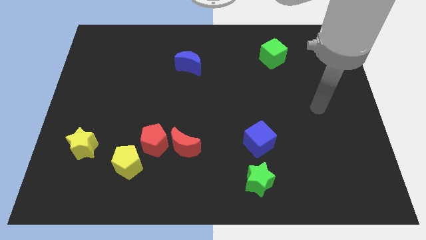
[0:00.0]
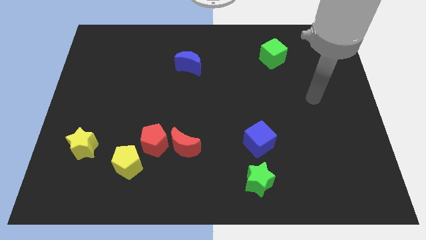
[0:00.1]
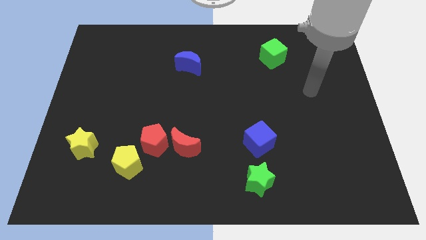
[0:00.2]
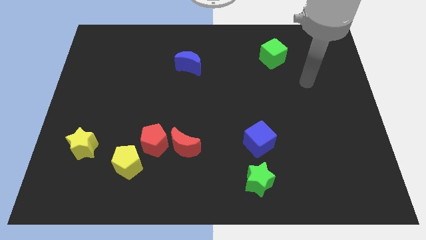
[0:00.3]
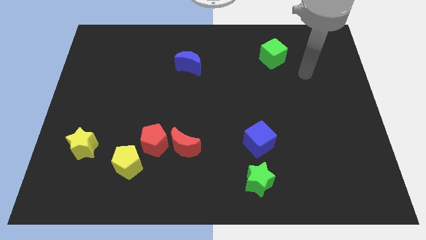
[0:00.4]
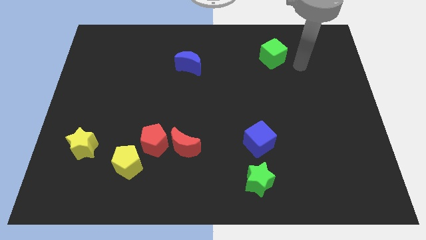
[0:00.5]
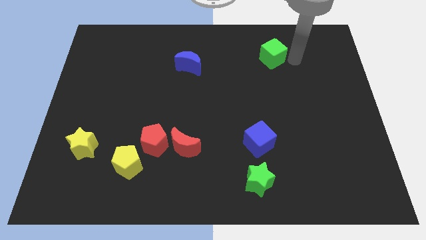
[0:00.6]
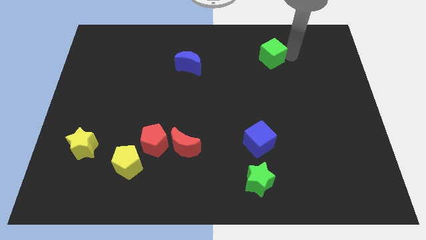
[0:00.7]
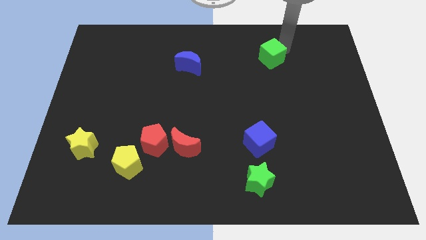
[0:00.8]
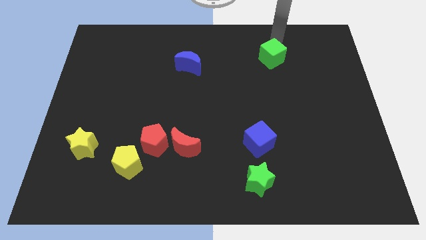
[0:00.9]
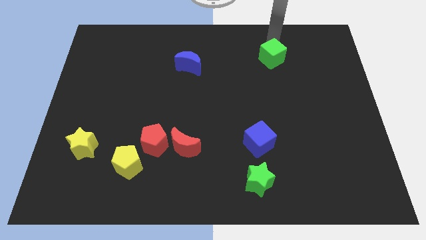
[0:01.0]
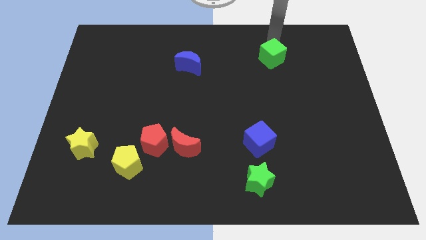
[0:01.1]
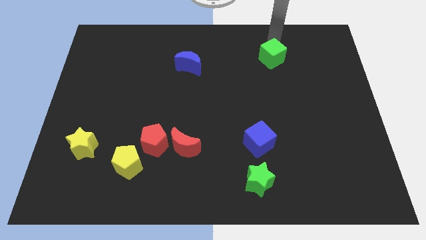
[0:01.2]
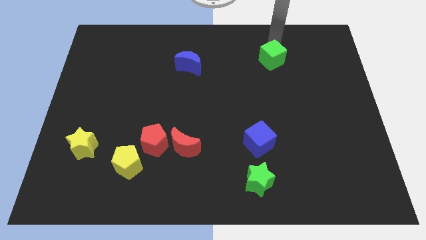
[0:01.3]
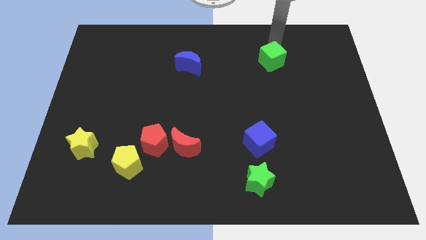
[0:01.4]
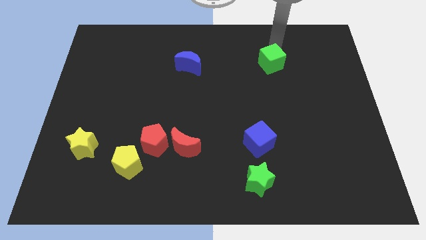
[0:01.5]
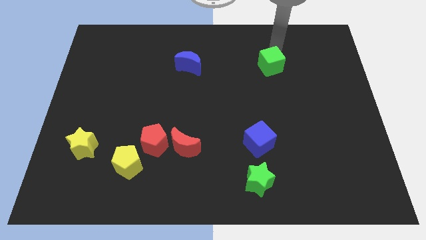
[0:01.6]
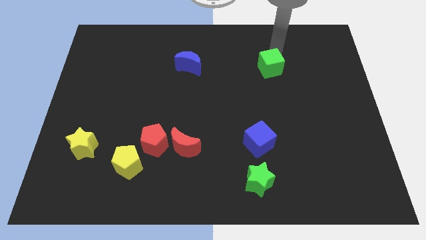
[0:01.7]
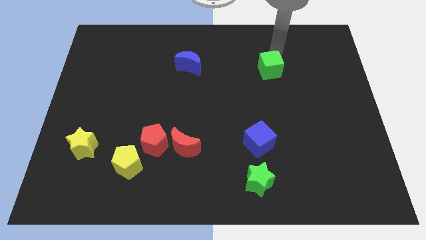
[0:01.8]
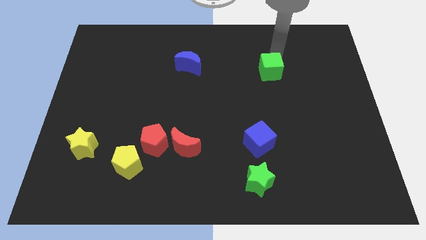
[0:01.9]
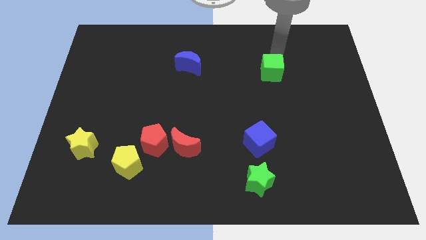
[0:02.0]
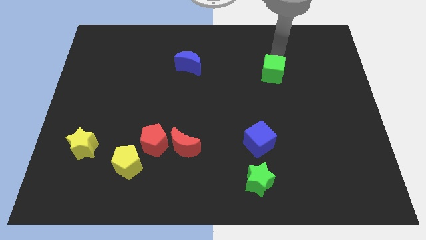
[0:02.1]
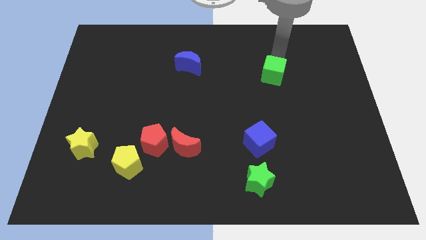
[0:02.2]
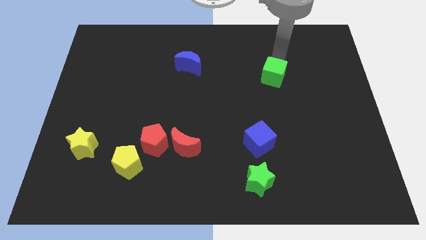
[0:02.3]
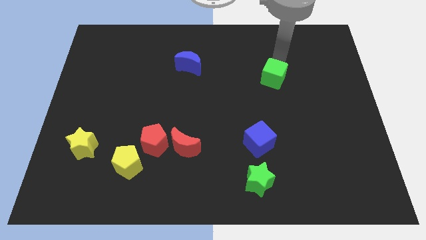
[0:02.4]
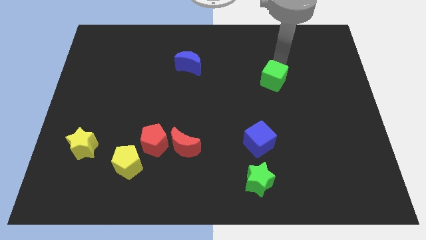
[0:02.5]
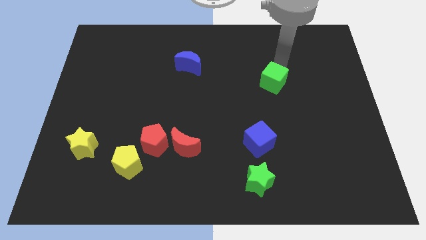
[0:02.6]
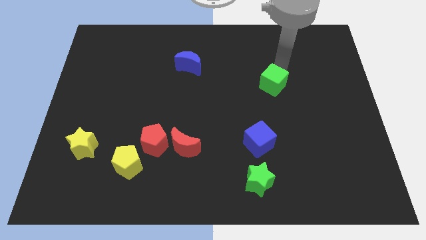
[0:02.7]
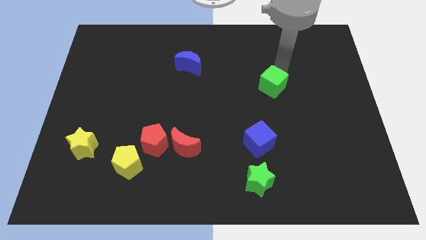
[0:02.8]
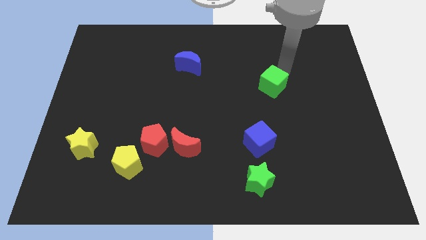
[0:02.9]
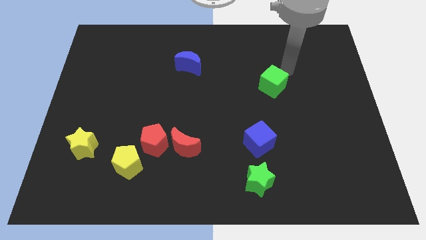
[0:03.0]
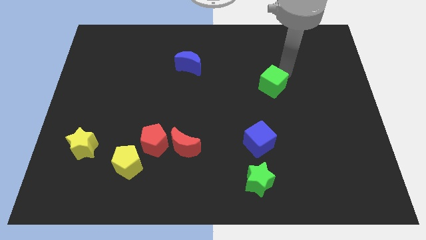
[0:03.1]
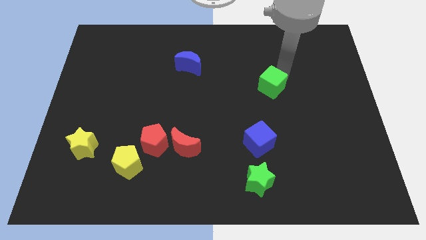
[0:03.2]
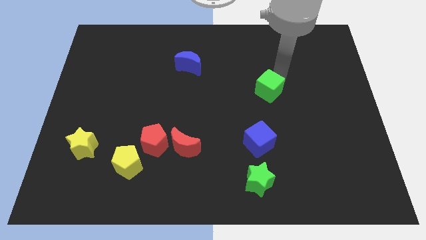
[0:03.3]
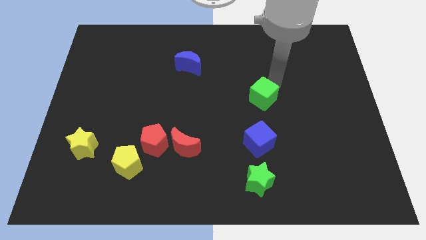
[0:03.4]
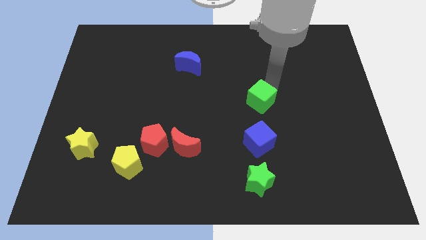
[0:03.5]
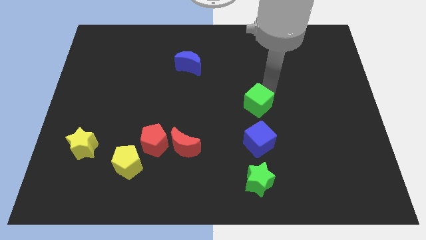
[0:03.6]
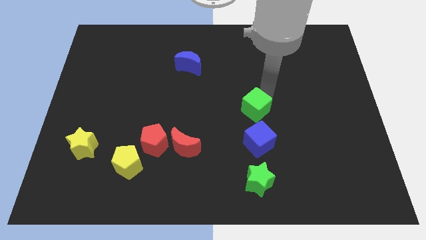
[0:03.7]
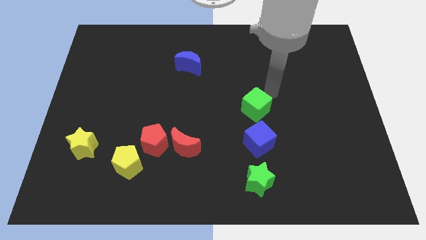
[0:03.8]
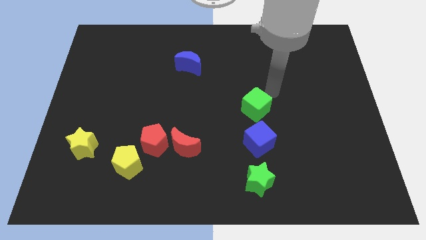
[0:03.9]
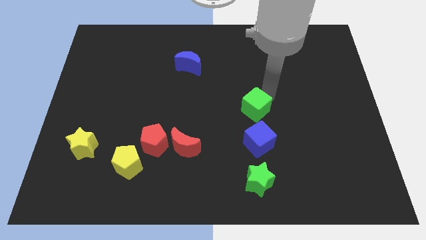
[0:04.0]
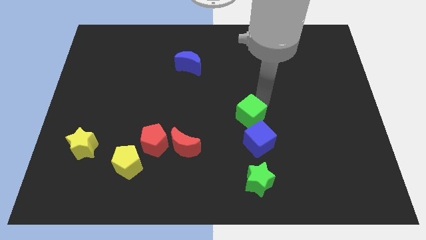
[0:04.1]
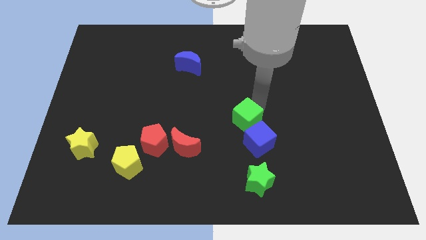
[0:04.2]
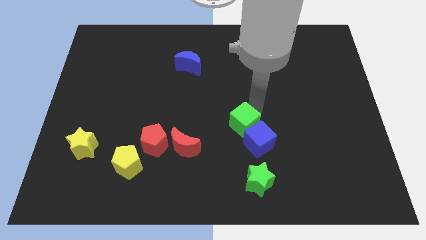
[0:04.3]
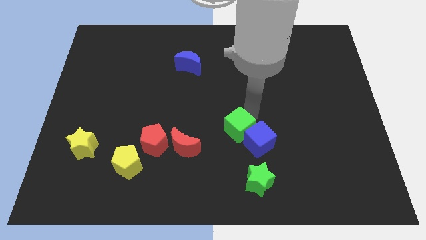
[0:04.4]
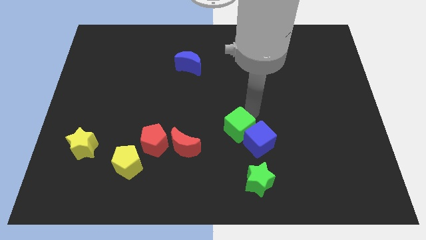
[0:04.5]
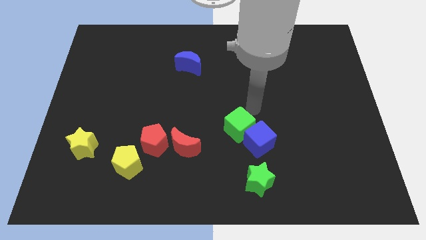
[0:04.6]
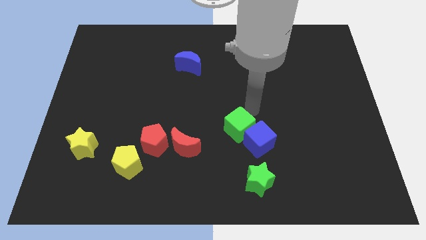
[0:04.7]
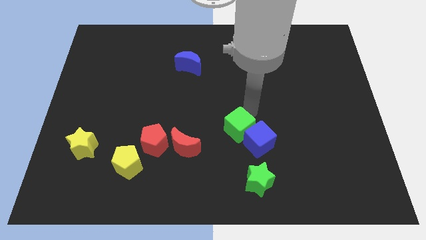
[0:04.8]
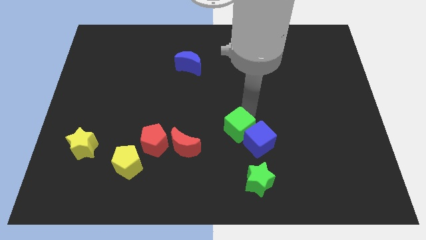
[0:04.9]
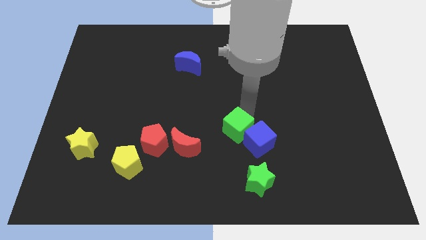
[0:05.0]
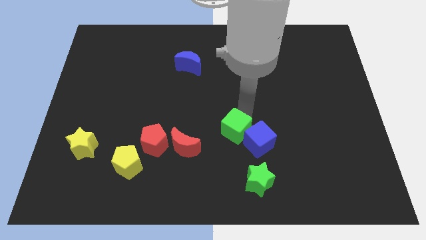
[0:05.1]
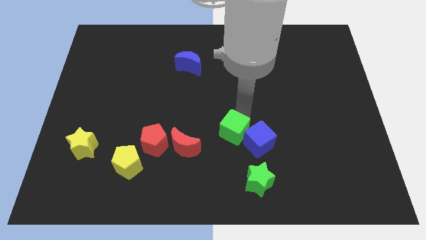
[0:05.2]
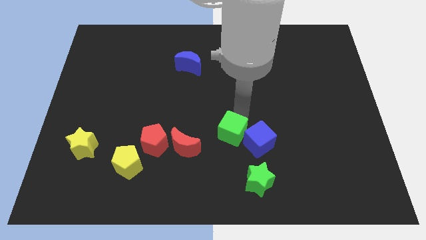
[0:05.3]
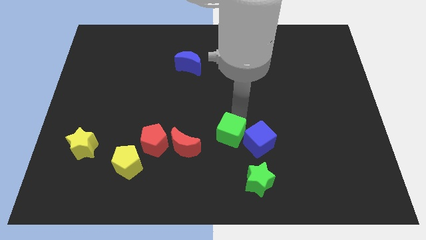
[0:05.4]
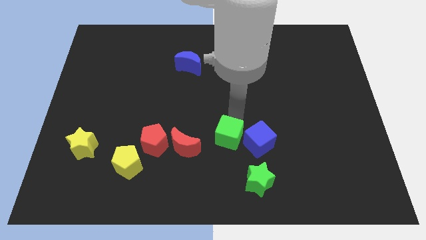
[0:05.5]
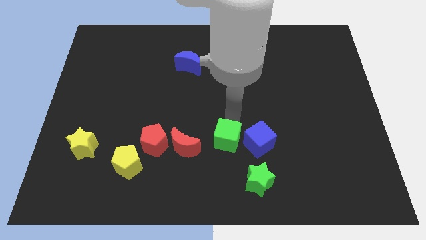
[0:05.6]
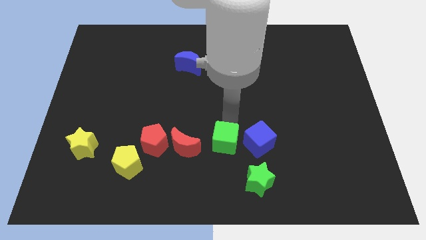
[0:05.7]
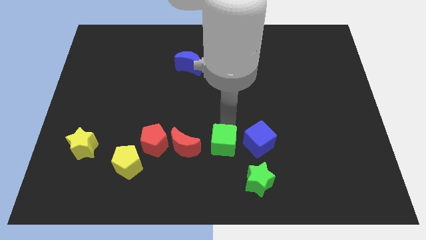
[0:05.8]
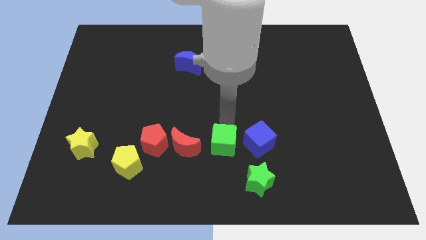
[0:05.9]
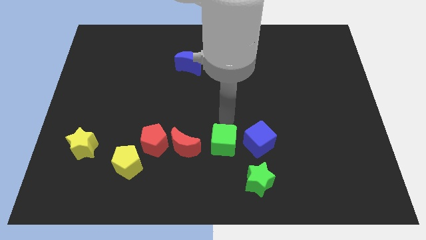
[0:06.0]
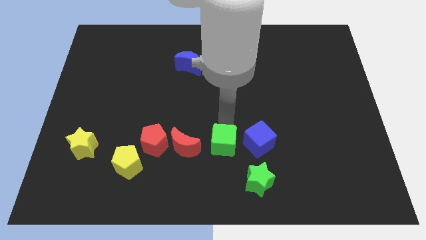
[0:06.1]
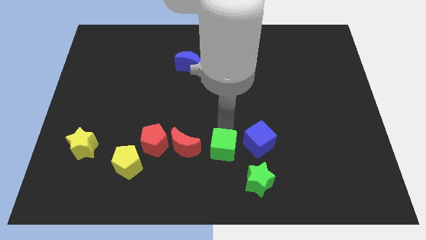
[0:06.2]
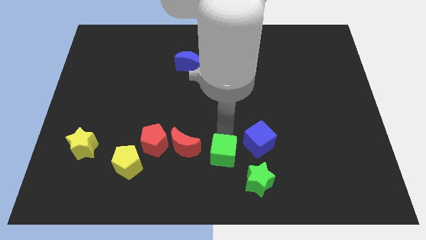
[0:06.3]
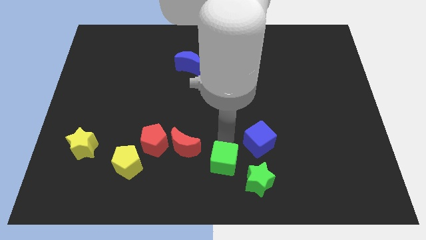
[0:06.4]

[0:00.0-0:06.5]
slide the green cube to the left side of the green star

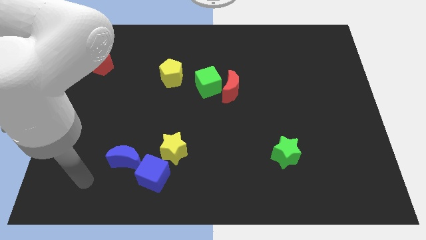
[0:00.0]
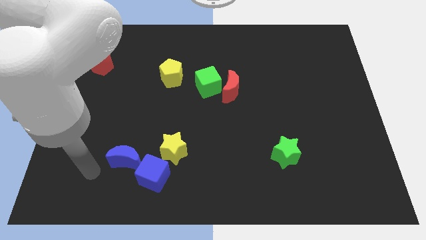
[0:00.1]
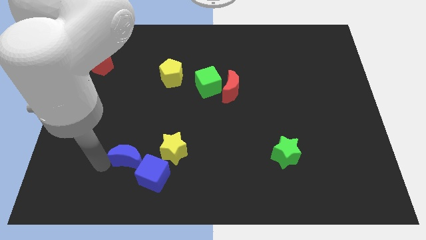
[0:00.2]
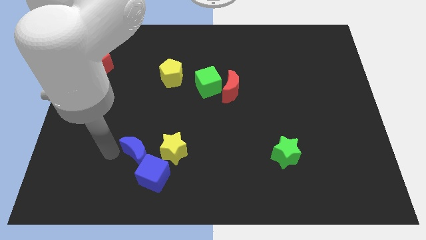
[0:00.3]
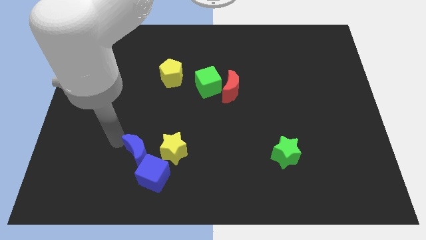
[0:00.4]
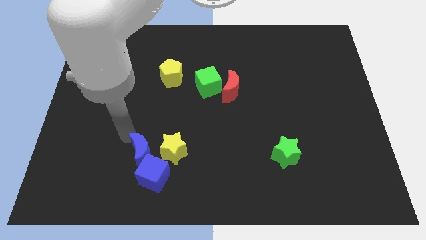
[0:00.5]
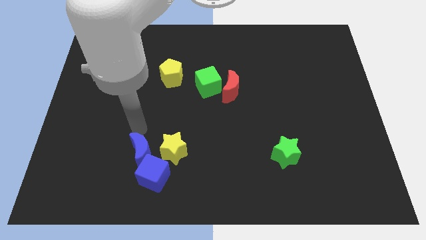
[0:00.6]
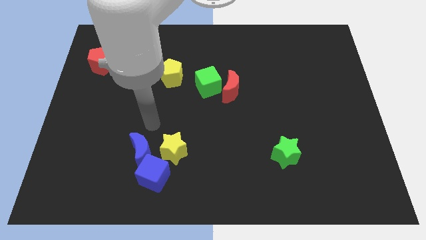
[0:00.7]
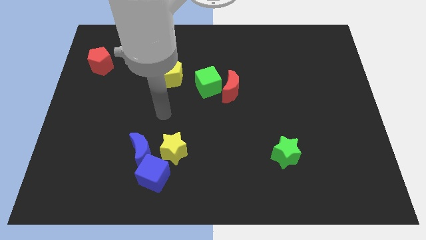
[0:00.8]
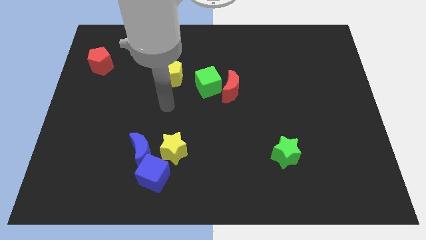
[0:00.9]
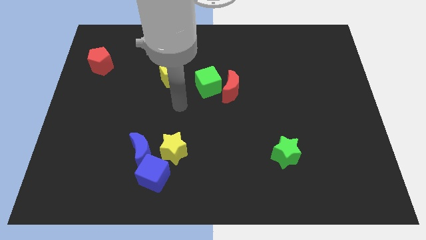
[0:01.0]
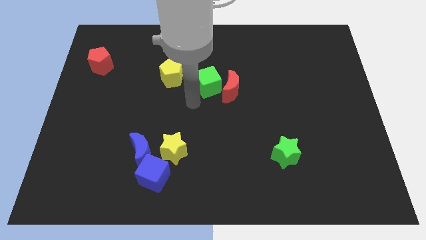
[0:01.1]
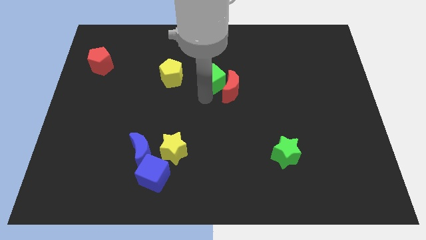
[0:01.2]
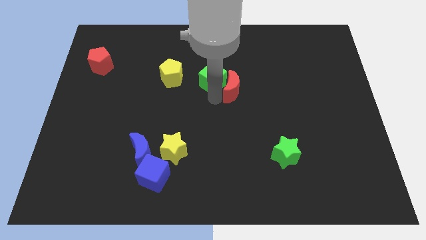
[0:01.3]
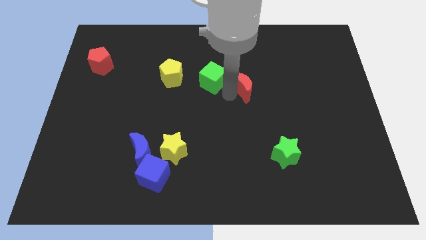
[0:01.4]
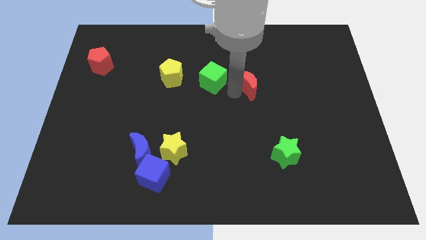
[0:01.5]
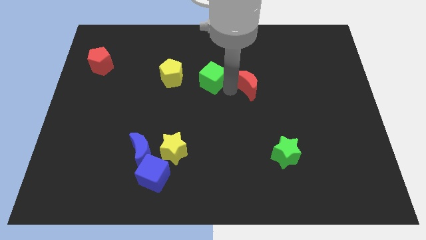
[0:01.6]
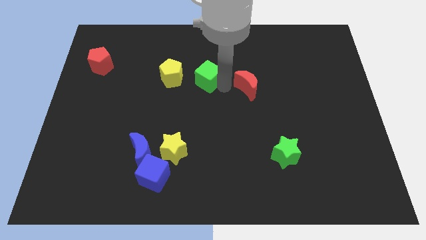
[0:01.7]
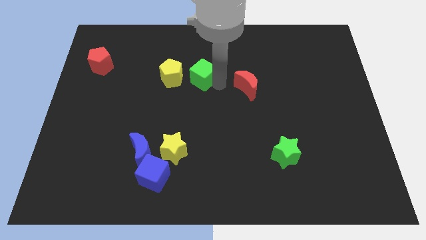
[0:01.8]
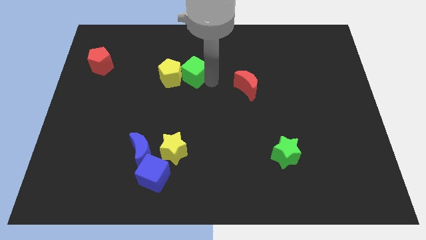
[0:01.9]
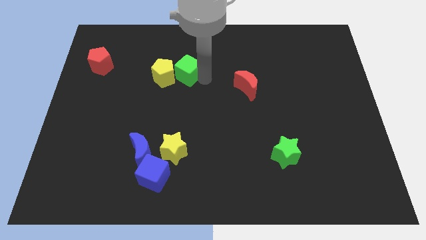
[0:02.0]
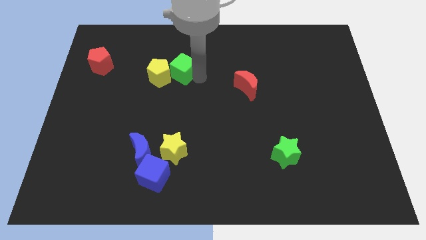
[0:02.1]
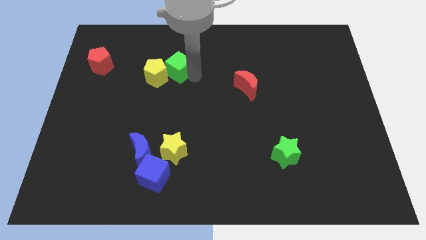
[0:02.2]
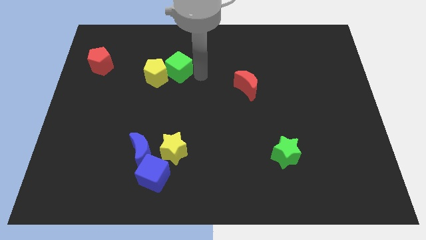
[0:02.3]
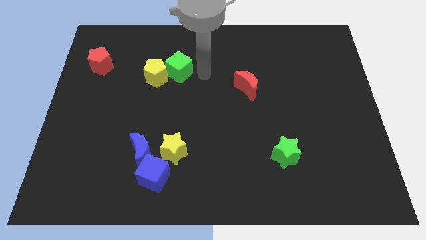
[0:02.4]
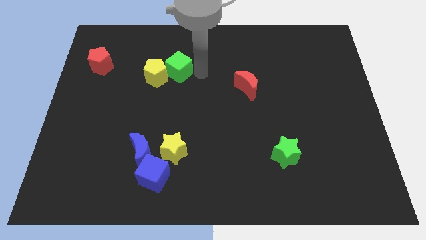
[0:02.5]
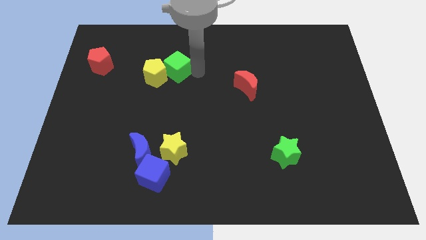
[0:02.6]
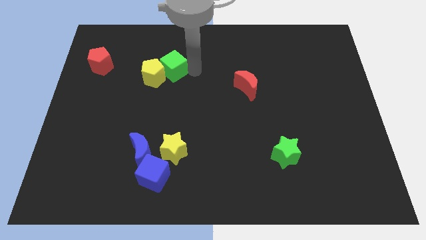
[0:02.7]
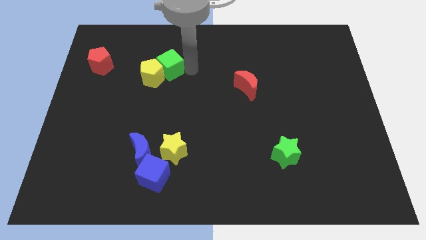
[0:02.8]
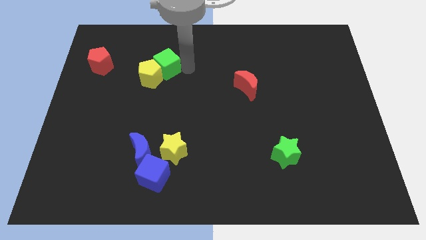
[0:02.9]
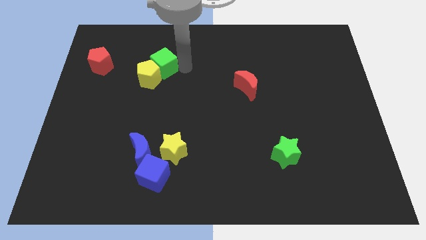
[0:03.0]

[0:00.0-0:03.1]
slide the green cube right of the red pentagon
